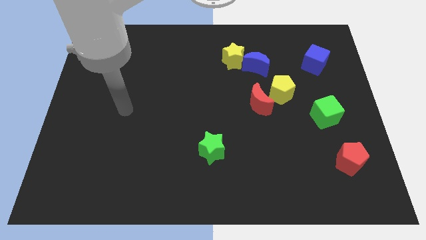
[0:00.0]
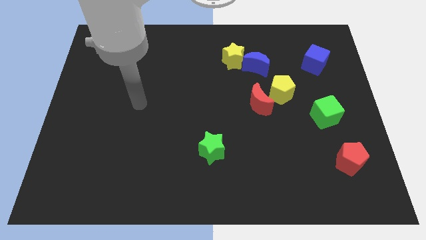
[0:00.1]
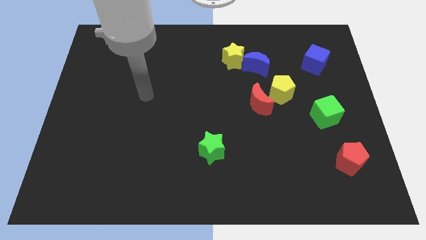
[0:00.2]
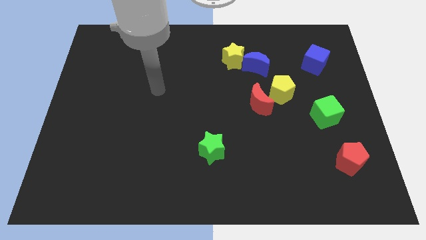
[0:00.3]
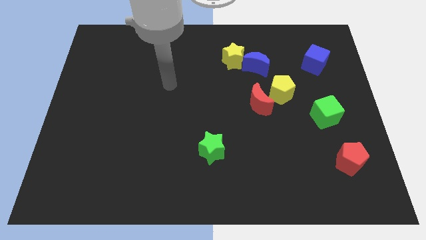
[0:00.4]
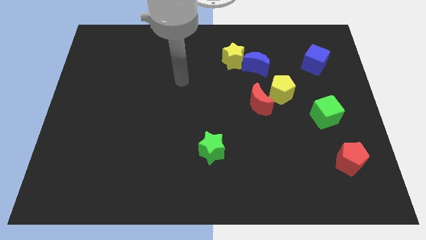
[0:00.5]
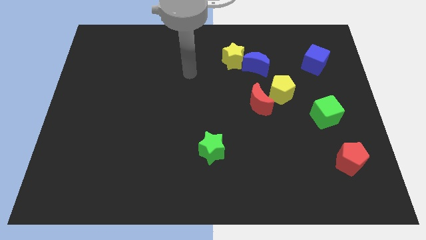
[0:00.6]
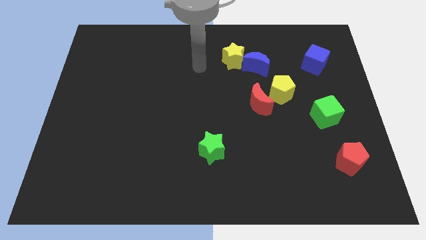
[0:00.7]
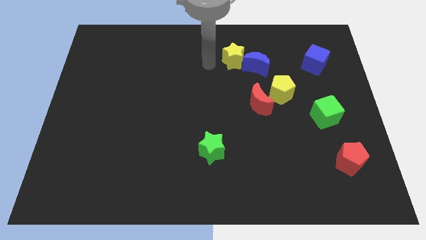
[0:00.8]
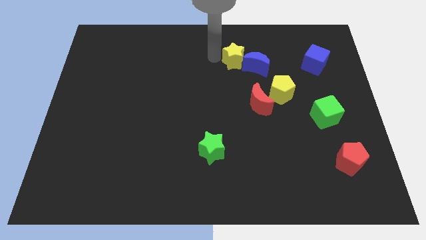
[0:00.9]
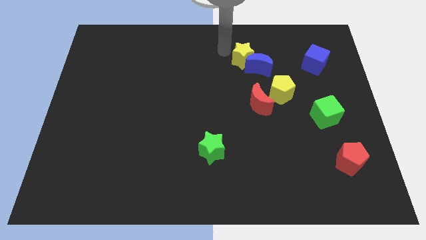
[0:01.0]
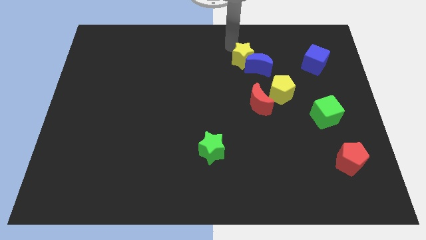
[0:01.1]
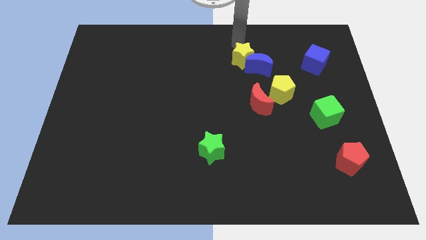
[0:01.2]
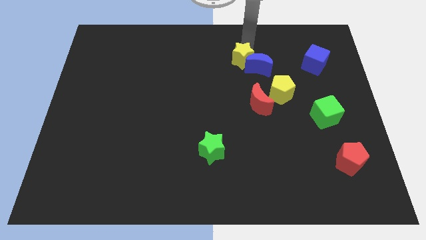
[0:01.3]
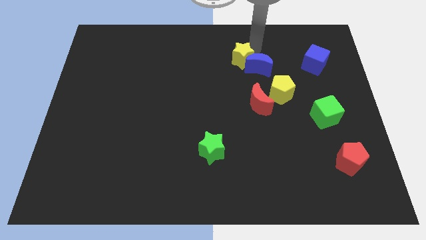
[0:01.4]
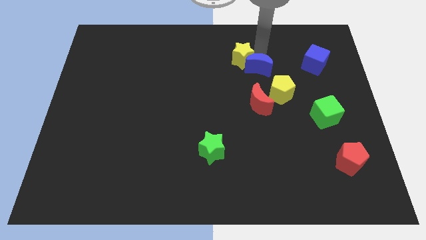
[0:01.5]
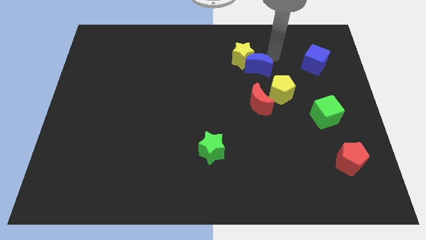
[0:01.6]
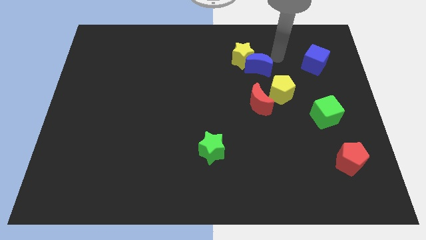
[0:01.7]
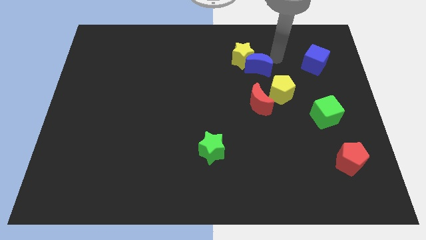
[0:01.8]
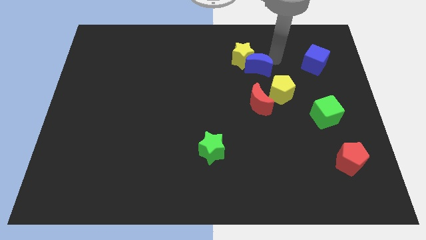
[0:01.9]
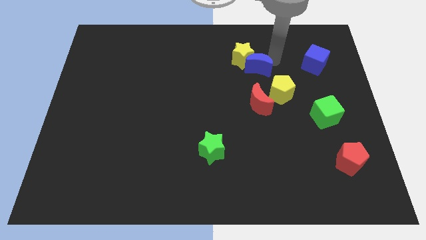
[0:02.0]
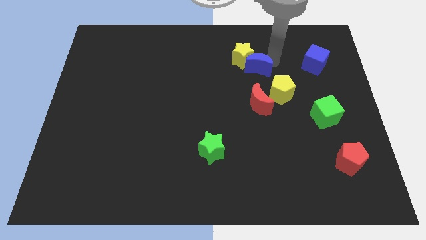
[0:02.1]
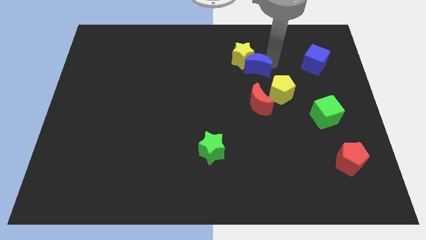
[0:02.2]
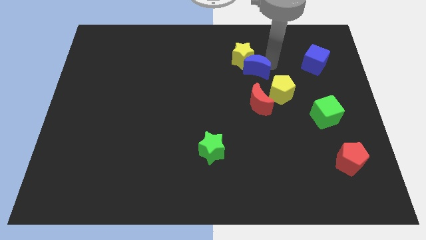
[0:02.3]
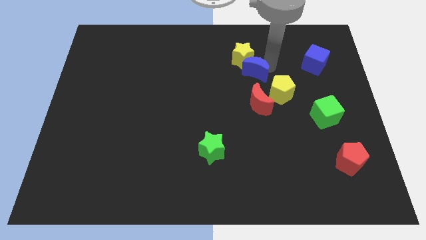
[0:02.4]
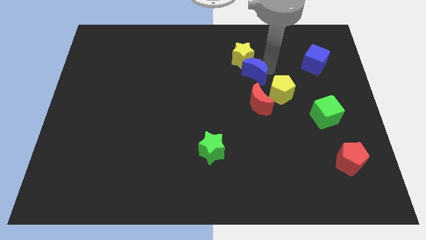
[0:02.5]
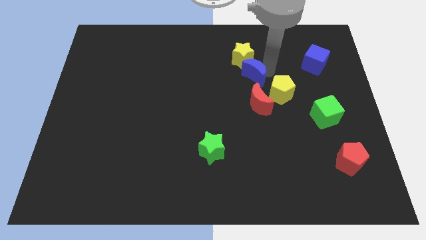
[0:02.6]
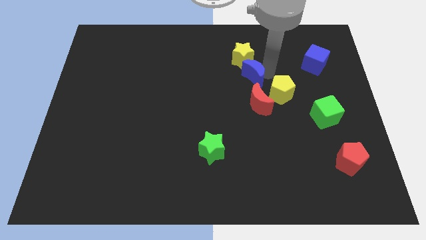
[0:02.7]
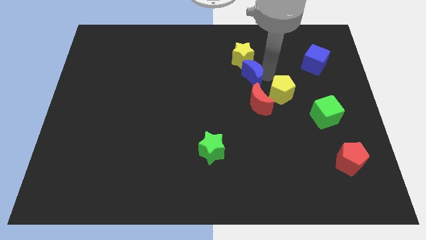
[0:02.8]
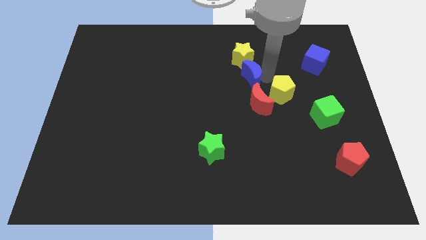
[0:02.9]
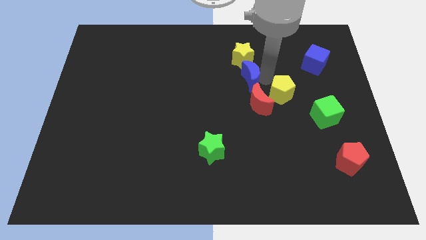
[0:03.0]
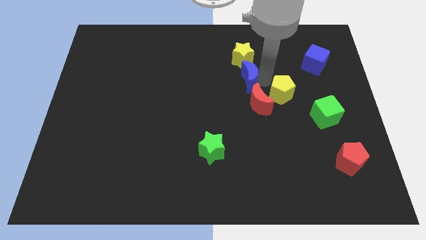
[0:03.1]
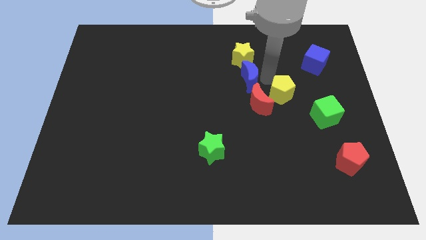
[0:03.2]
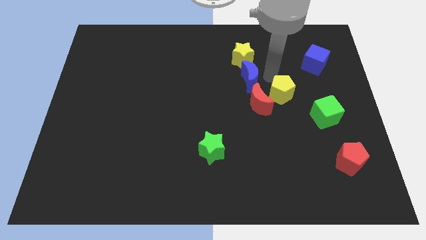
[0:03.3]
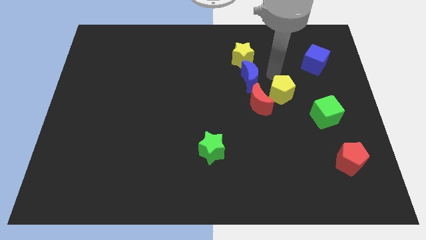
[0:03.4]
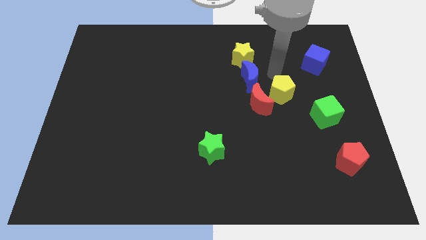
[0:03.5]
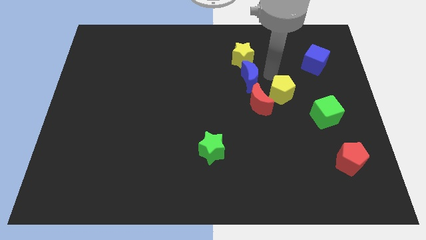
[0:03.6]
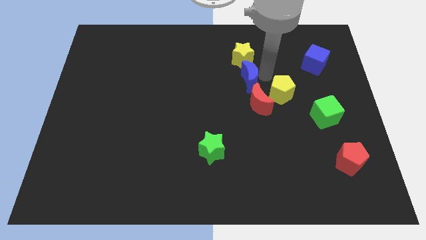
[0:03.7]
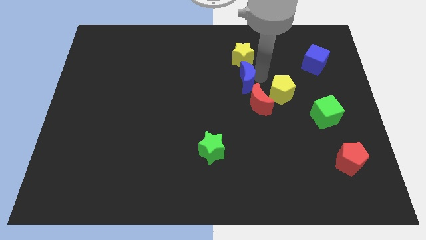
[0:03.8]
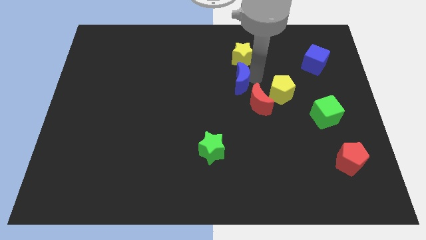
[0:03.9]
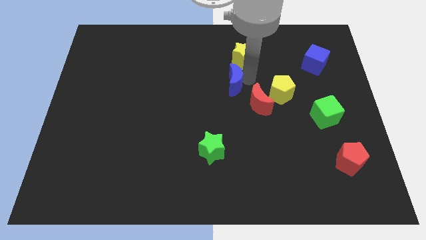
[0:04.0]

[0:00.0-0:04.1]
slide the blue moon a little bit diagonally downwards and left

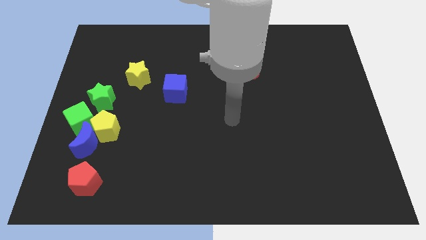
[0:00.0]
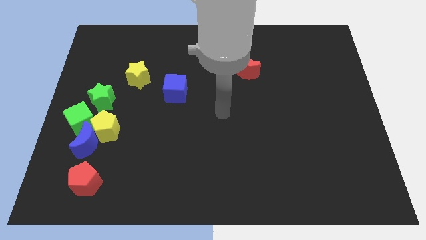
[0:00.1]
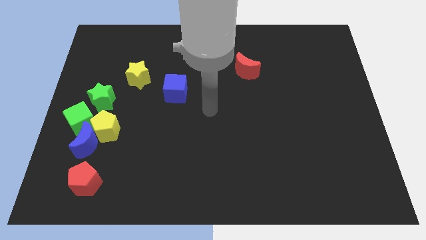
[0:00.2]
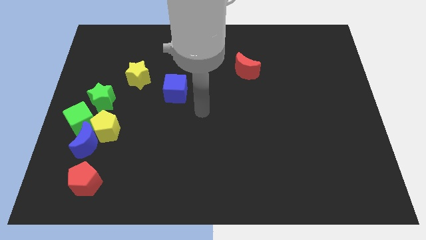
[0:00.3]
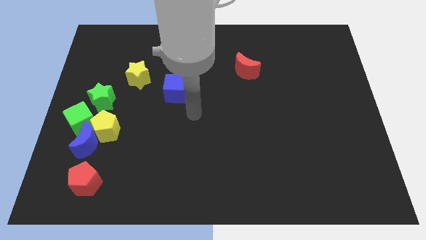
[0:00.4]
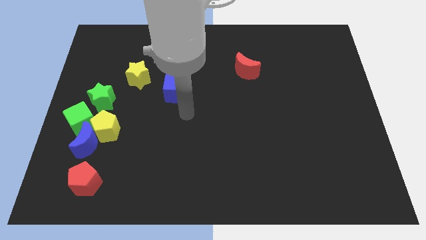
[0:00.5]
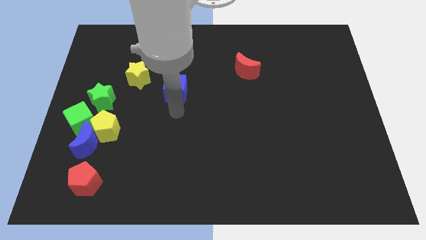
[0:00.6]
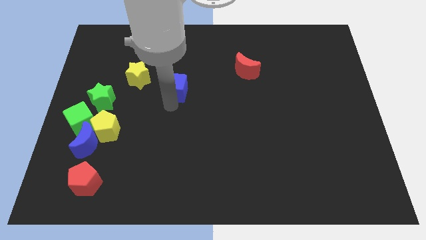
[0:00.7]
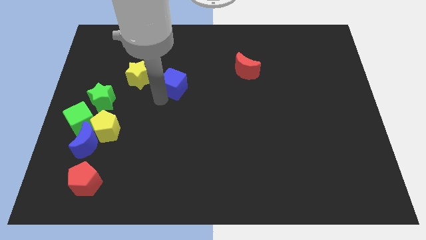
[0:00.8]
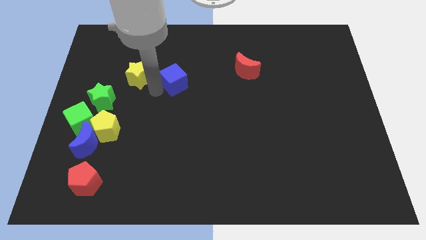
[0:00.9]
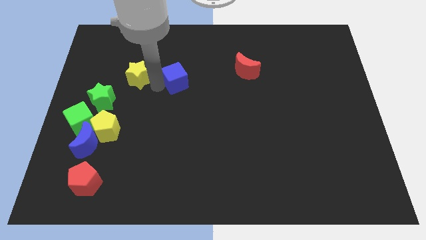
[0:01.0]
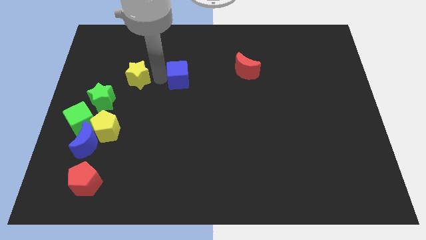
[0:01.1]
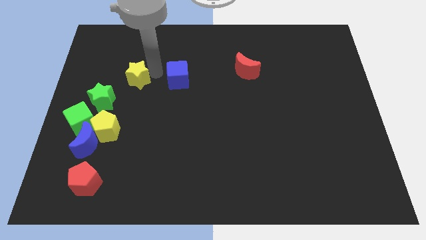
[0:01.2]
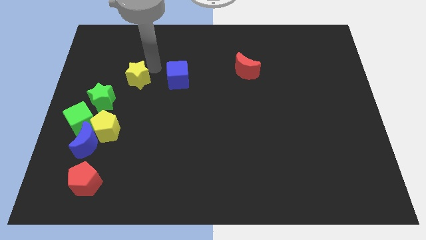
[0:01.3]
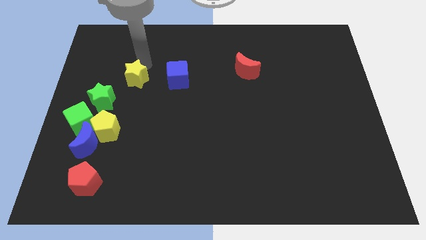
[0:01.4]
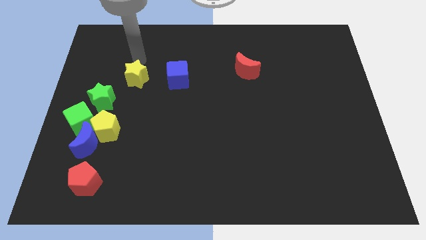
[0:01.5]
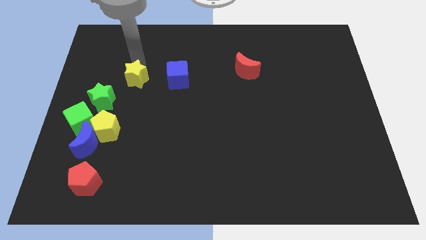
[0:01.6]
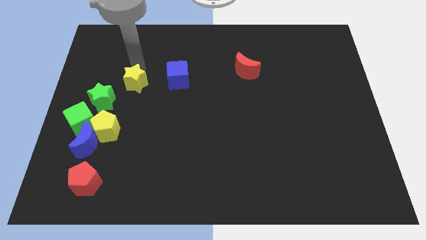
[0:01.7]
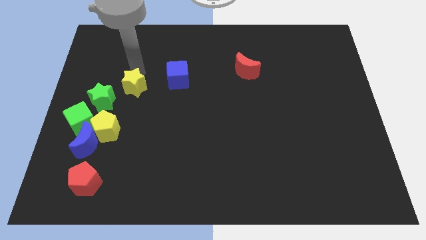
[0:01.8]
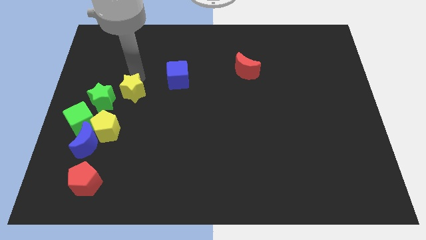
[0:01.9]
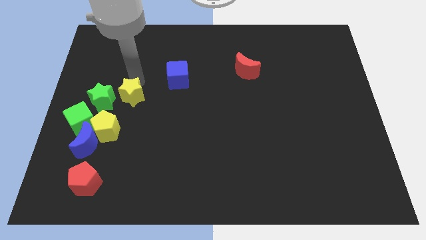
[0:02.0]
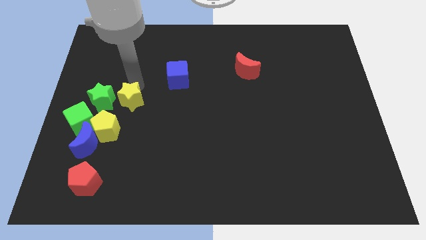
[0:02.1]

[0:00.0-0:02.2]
slide the yellow star down slightly

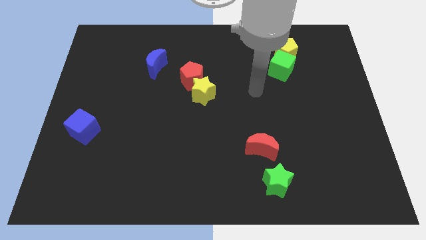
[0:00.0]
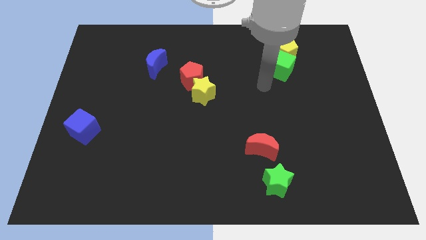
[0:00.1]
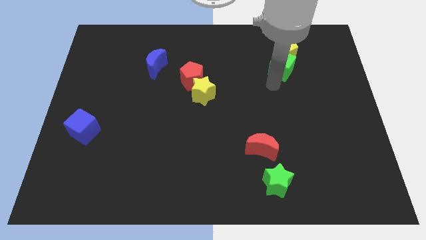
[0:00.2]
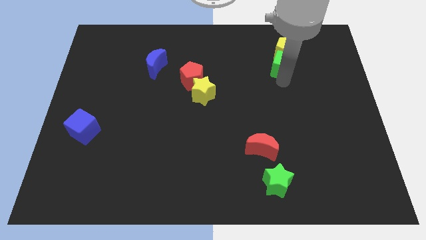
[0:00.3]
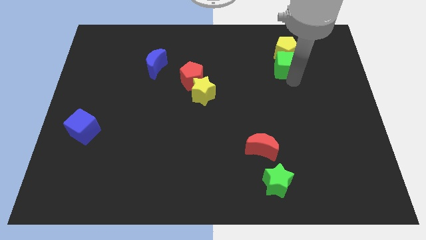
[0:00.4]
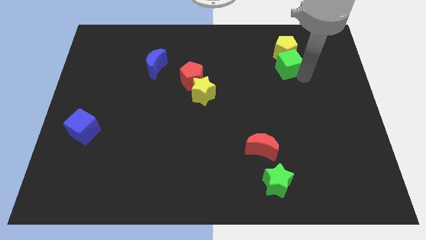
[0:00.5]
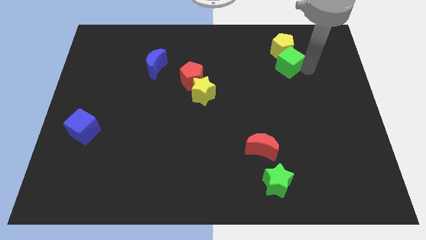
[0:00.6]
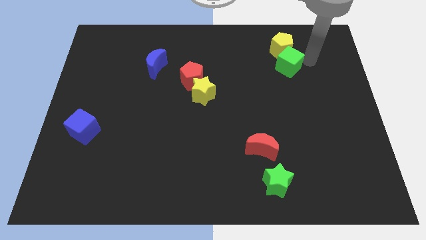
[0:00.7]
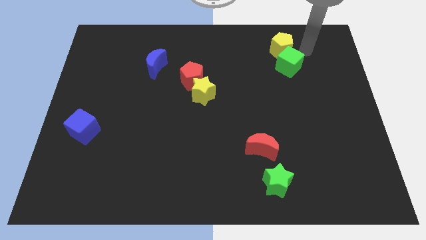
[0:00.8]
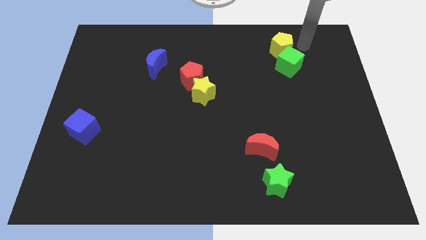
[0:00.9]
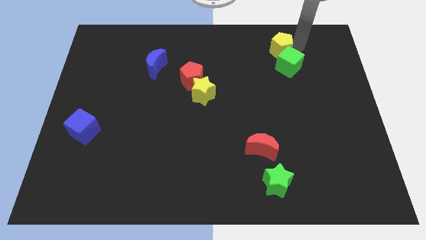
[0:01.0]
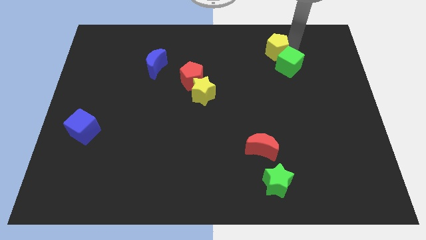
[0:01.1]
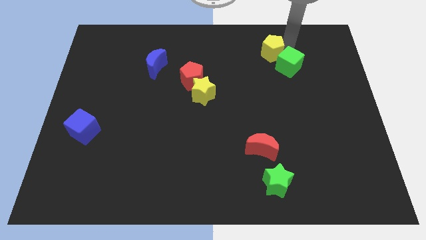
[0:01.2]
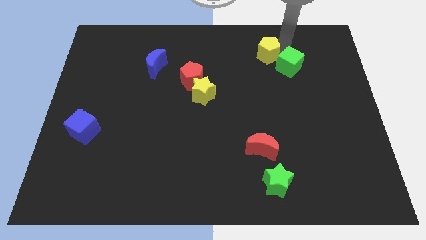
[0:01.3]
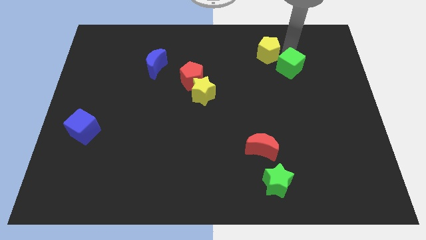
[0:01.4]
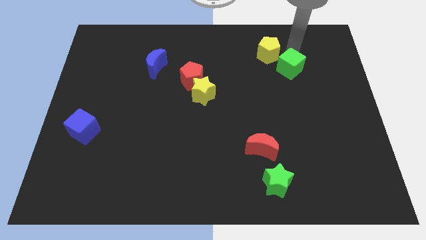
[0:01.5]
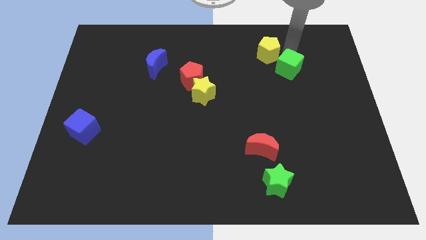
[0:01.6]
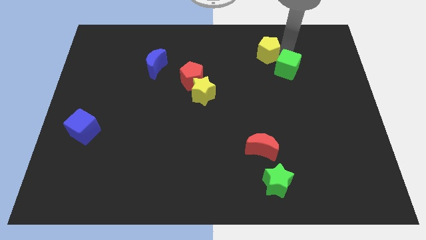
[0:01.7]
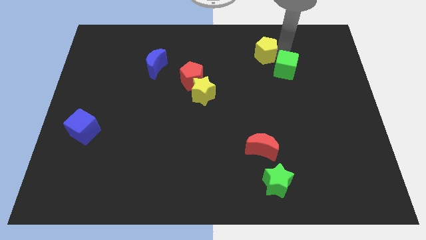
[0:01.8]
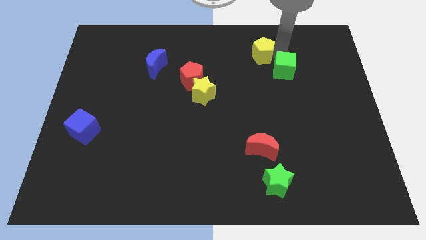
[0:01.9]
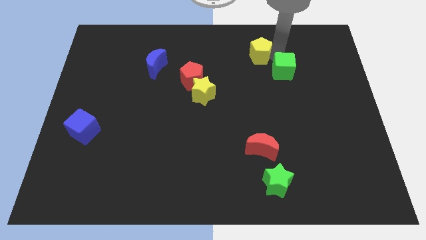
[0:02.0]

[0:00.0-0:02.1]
slide the yellow pentagon somewhat to the left
